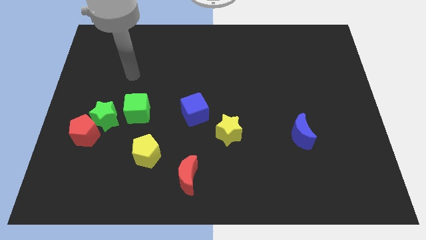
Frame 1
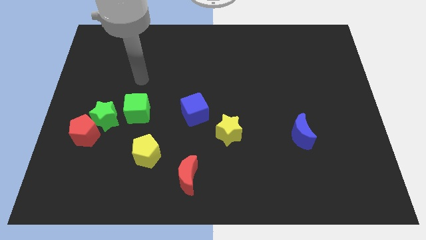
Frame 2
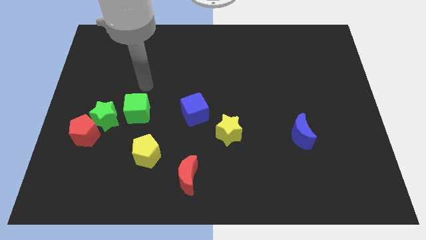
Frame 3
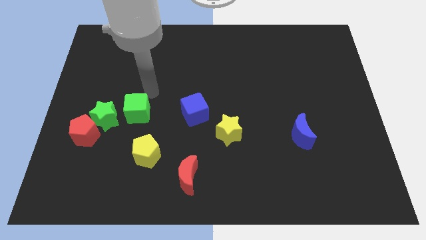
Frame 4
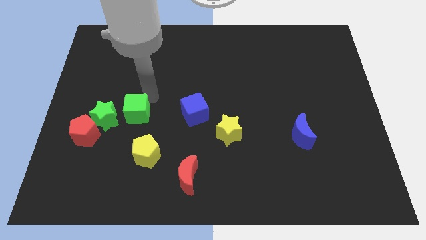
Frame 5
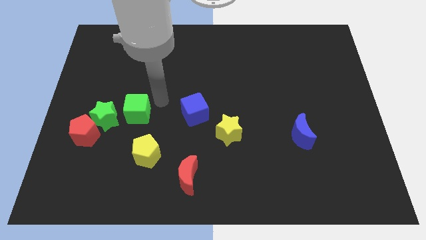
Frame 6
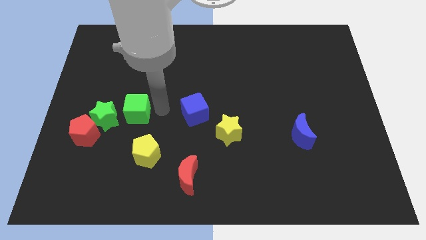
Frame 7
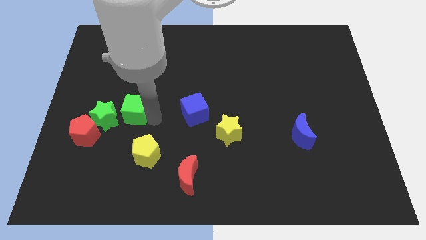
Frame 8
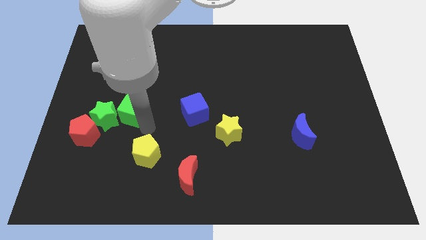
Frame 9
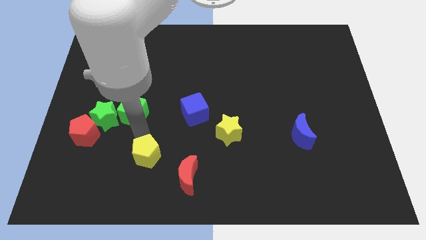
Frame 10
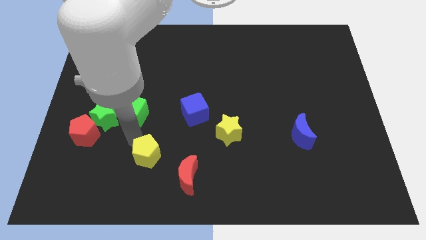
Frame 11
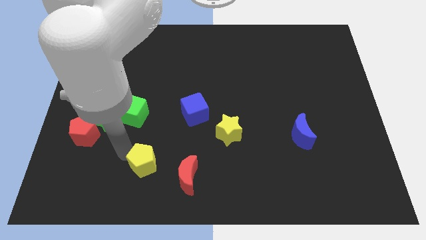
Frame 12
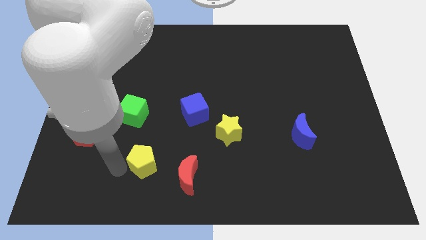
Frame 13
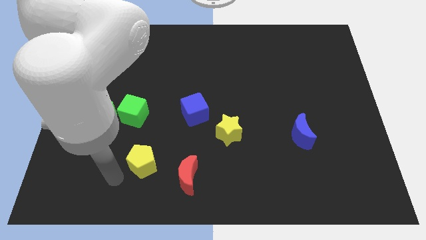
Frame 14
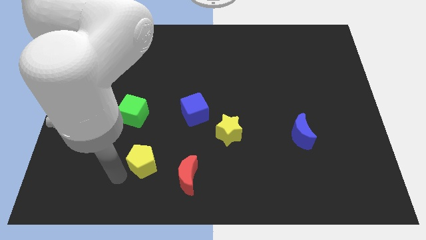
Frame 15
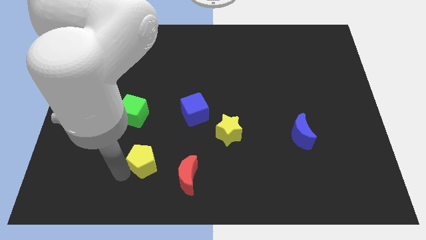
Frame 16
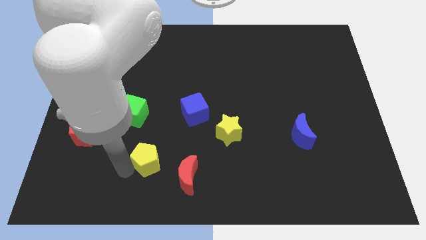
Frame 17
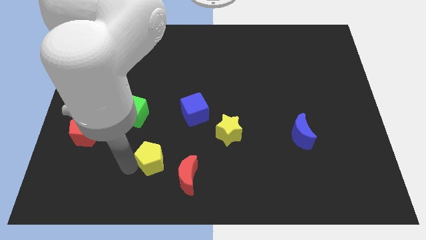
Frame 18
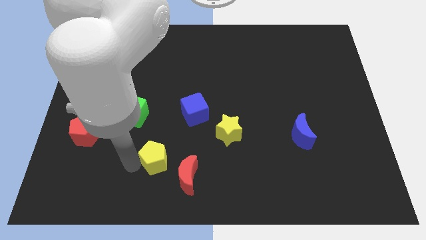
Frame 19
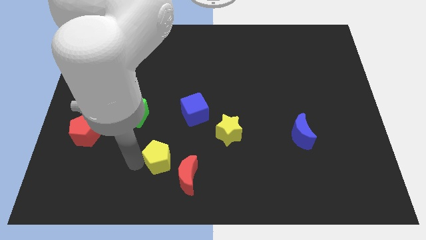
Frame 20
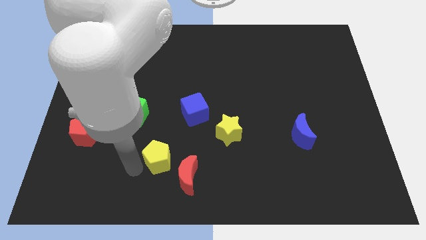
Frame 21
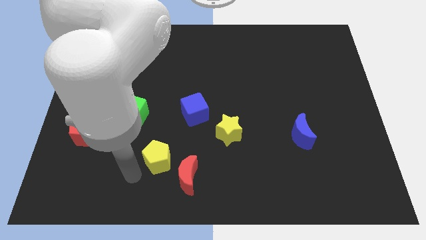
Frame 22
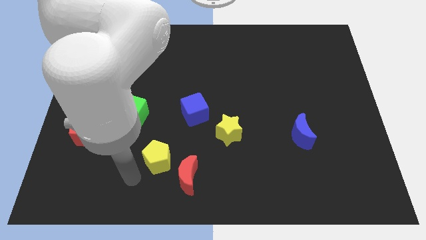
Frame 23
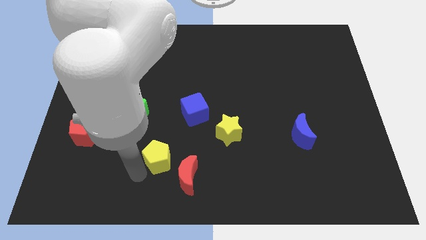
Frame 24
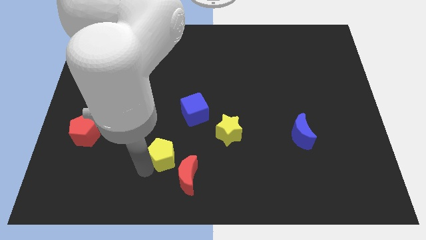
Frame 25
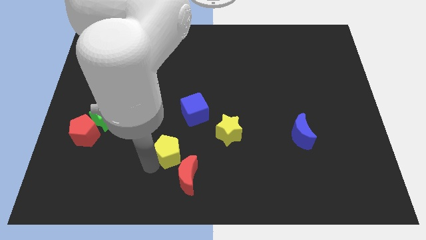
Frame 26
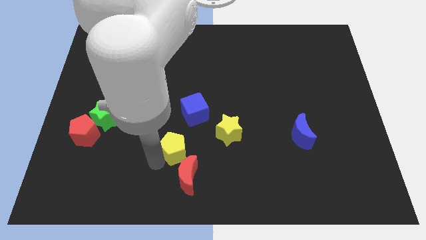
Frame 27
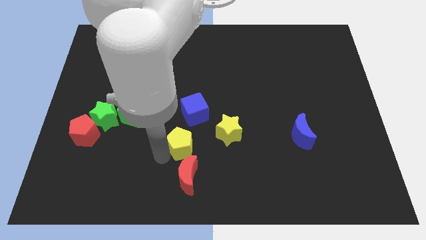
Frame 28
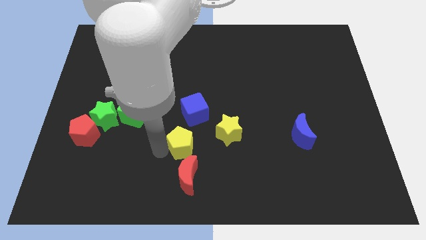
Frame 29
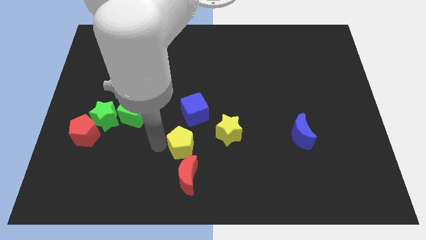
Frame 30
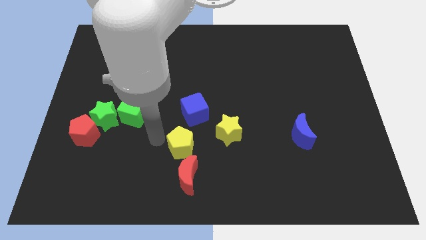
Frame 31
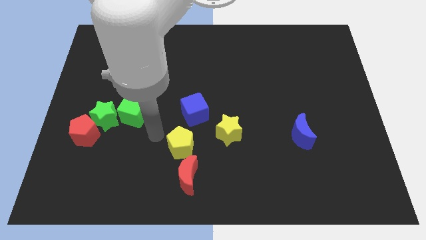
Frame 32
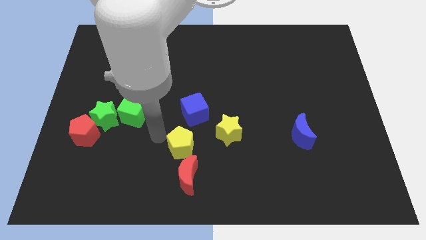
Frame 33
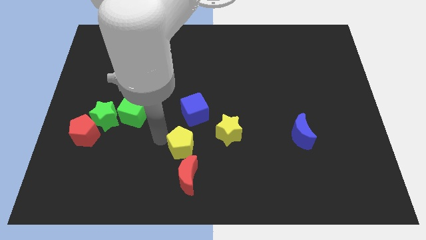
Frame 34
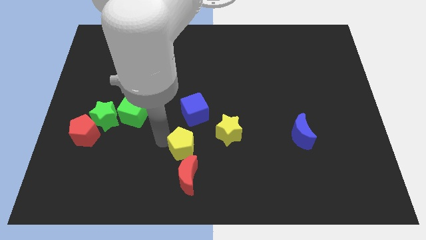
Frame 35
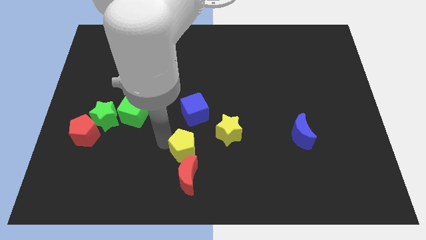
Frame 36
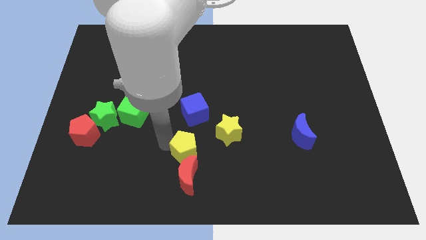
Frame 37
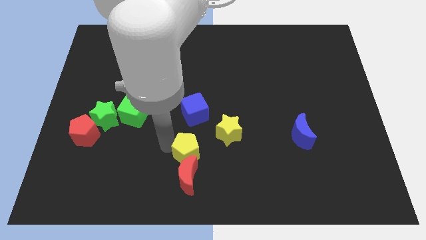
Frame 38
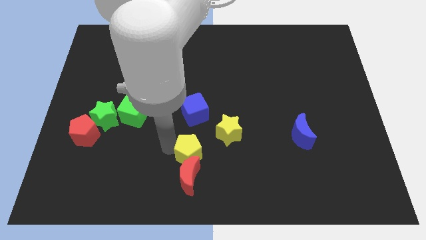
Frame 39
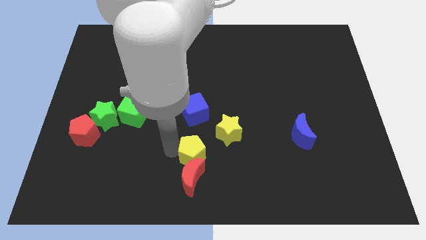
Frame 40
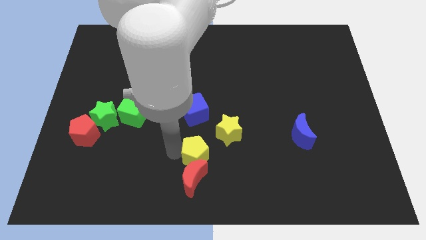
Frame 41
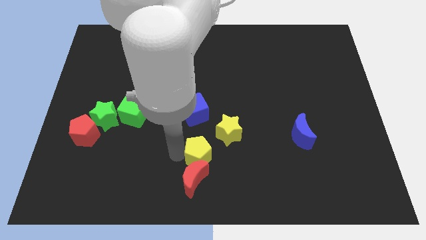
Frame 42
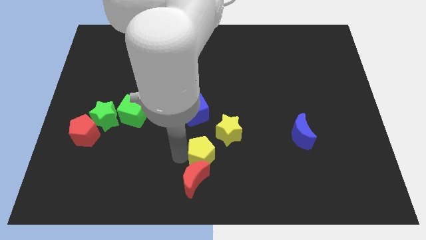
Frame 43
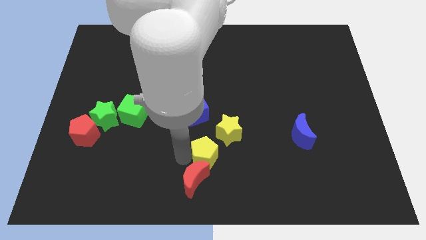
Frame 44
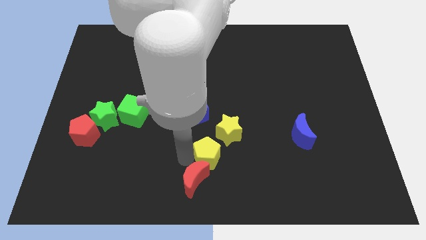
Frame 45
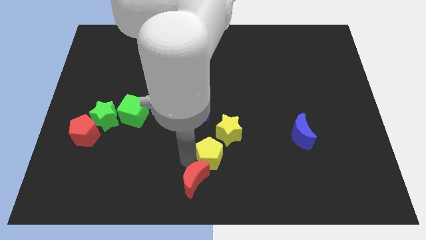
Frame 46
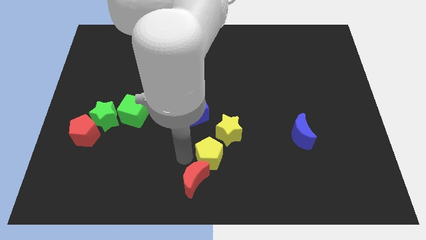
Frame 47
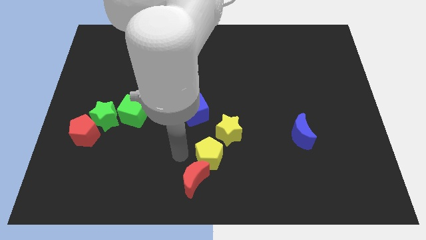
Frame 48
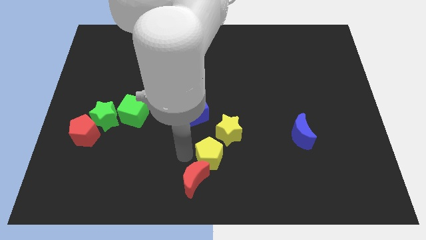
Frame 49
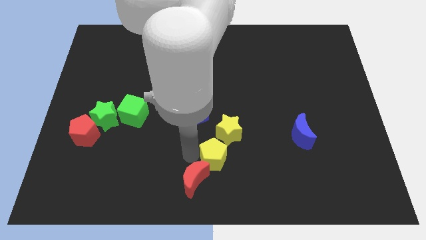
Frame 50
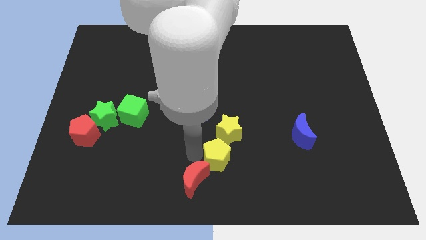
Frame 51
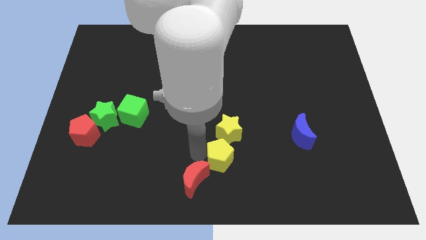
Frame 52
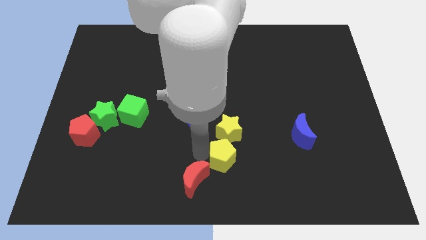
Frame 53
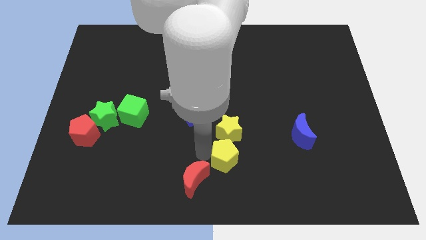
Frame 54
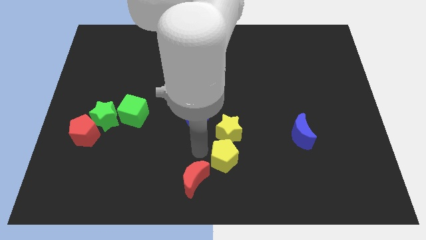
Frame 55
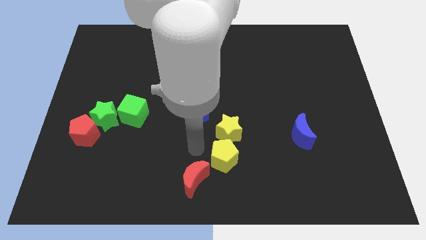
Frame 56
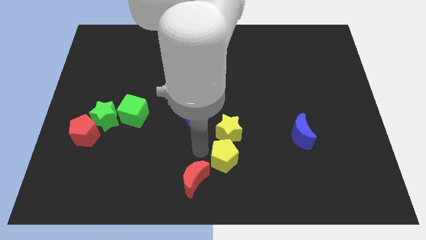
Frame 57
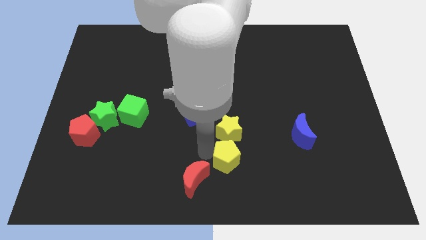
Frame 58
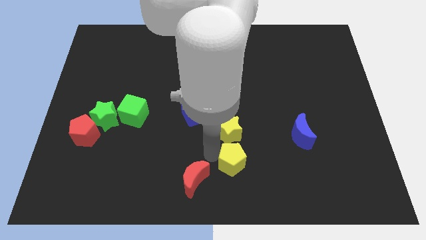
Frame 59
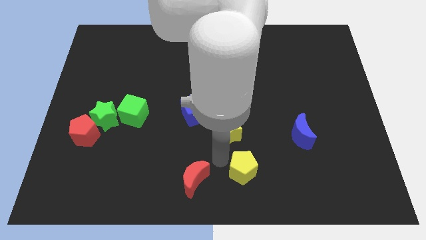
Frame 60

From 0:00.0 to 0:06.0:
move the yellow pentagon right

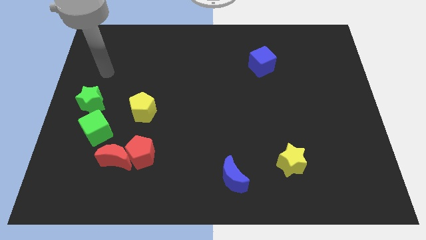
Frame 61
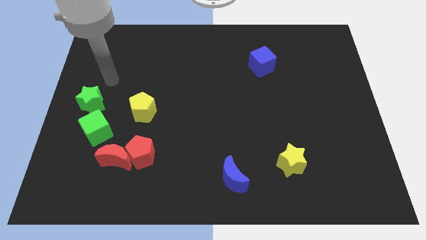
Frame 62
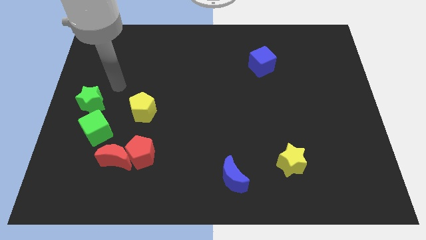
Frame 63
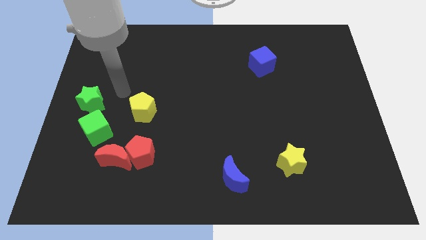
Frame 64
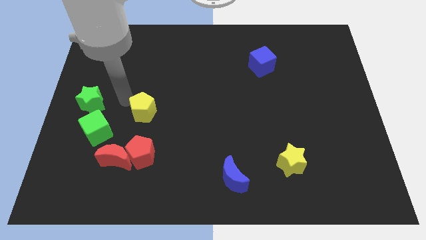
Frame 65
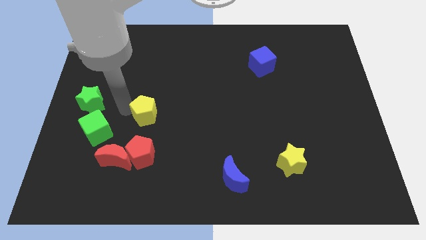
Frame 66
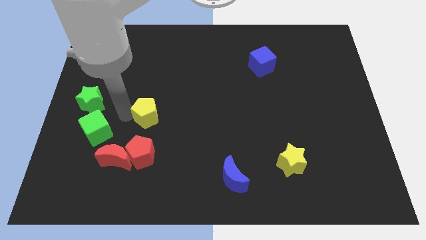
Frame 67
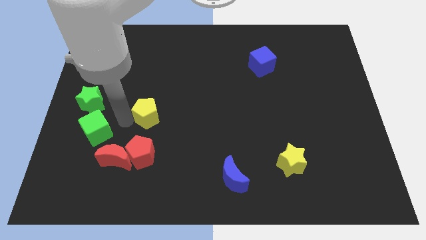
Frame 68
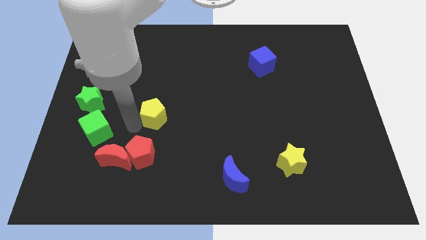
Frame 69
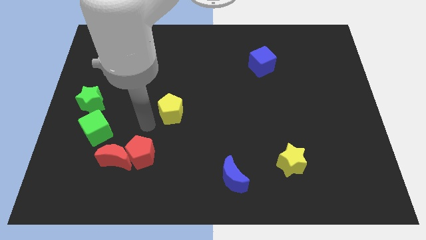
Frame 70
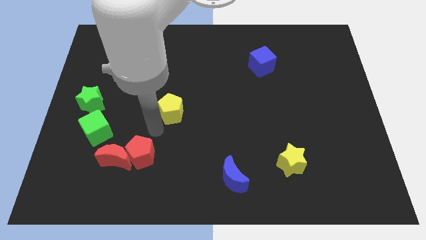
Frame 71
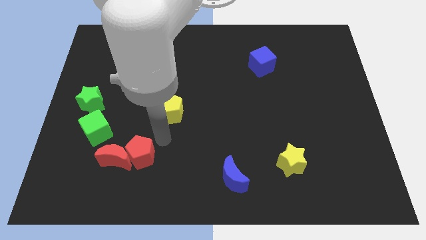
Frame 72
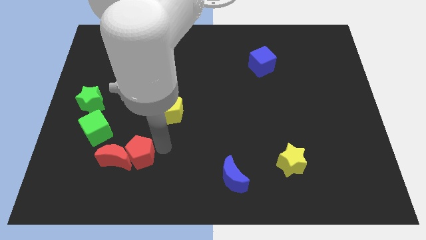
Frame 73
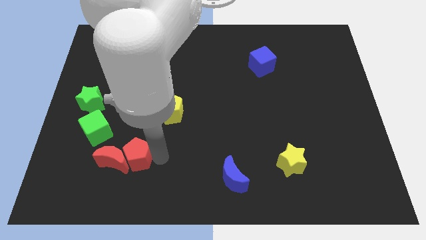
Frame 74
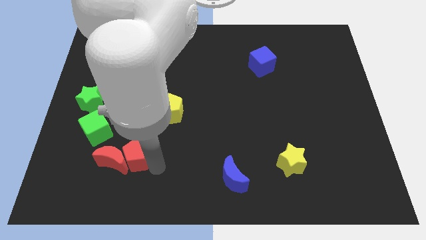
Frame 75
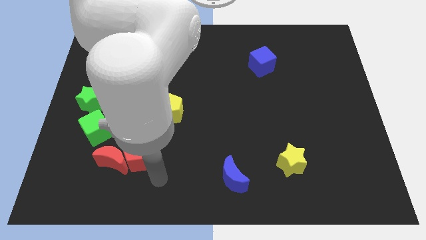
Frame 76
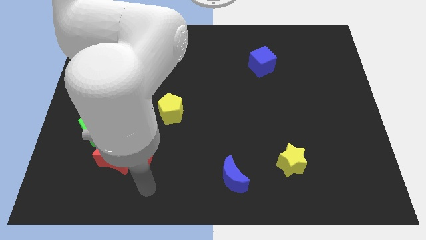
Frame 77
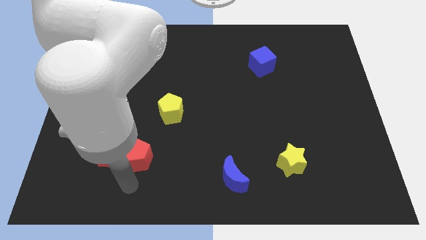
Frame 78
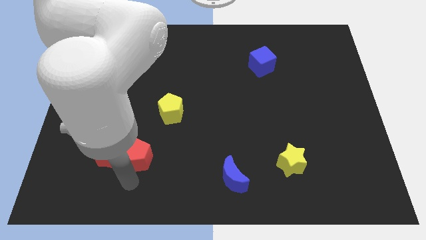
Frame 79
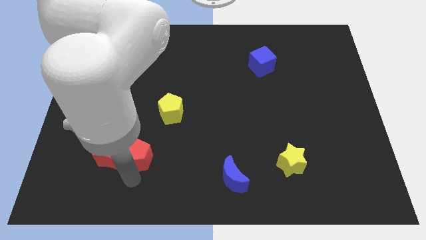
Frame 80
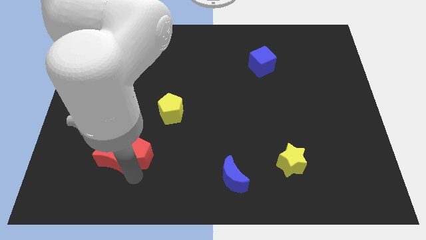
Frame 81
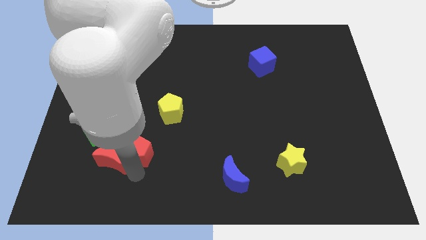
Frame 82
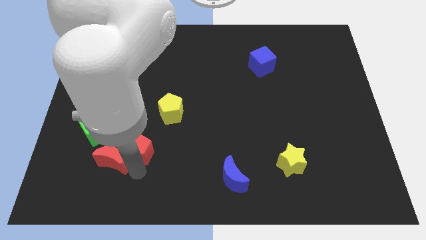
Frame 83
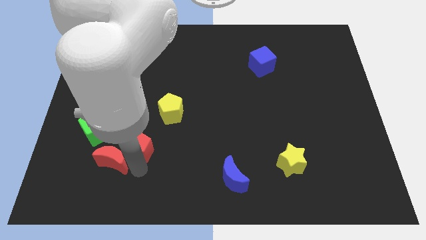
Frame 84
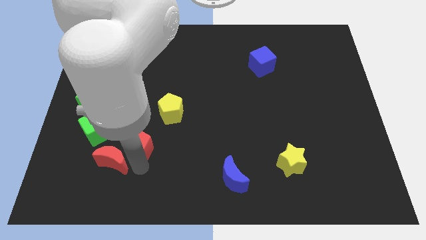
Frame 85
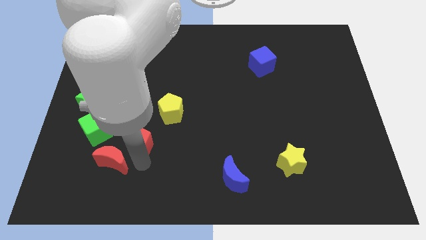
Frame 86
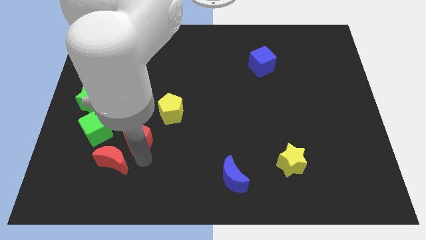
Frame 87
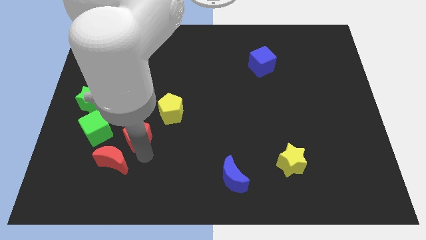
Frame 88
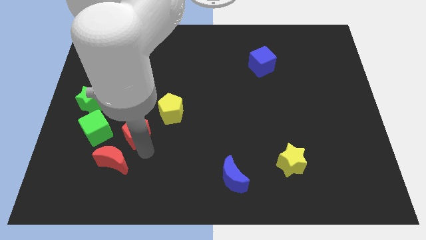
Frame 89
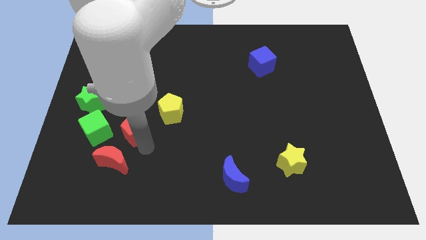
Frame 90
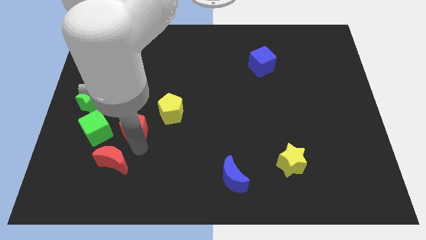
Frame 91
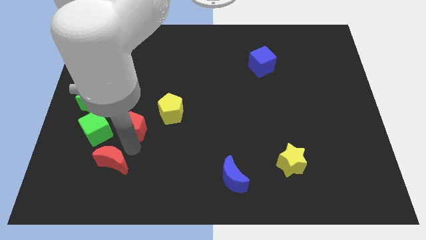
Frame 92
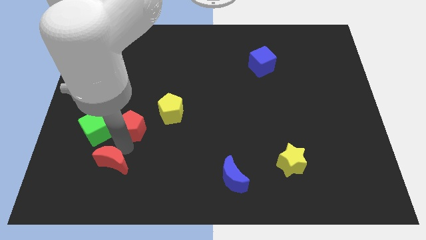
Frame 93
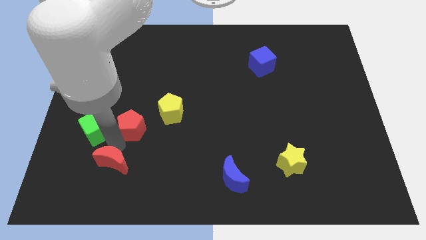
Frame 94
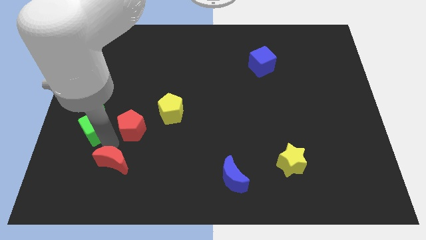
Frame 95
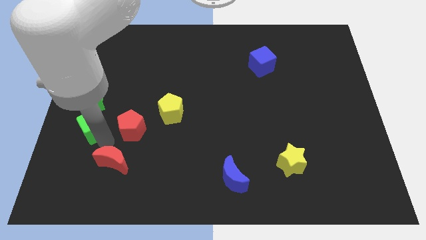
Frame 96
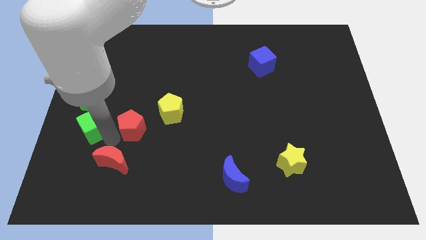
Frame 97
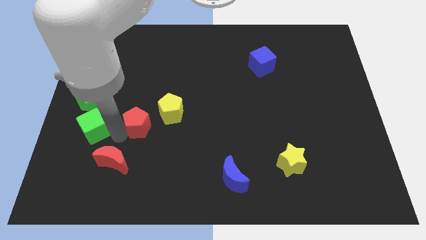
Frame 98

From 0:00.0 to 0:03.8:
push the red pentagon a bit up
